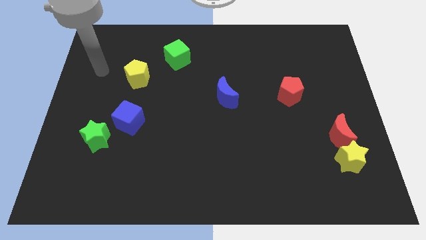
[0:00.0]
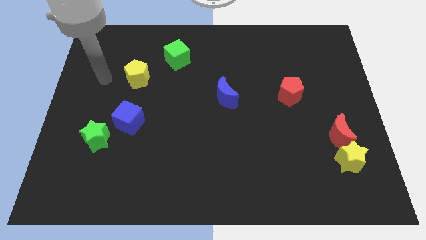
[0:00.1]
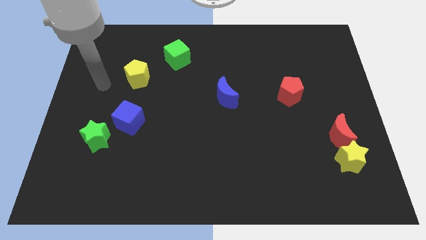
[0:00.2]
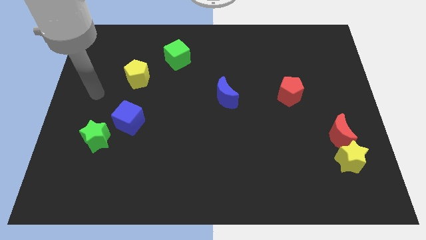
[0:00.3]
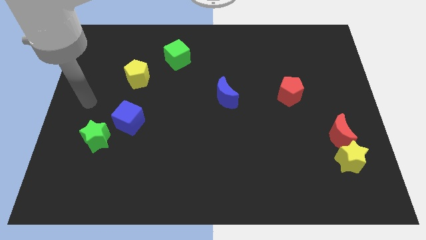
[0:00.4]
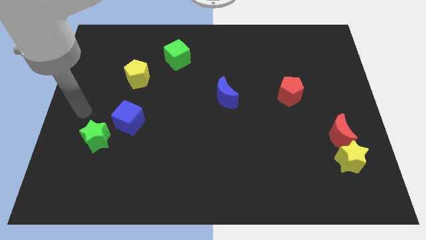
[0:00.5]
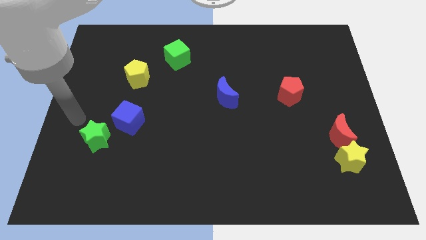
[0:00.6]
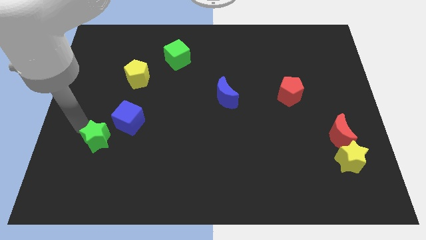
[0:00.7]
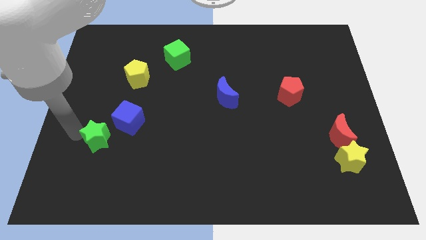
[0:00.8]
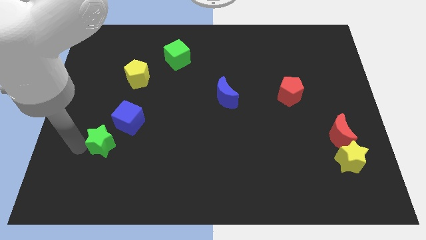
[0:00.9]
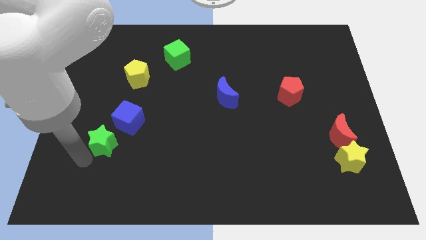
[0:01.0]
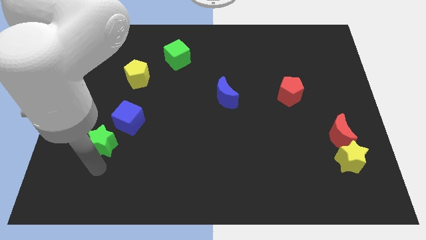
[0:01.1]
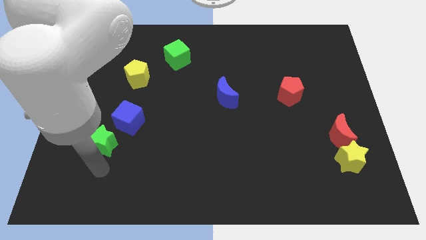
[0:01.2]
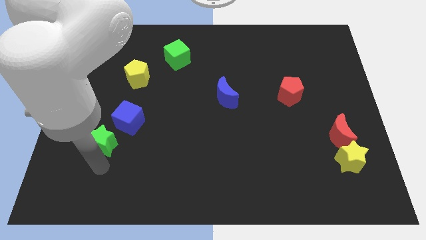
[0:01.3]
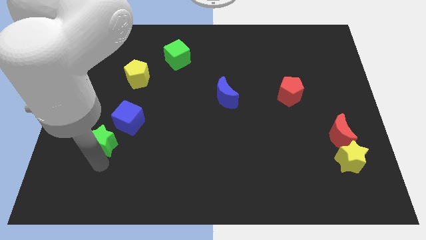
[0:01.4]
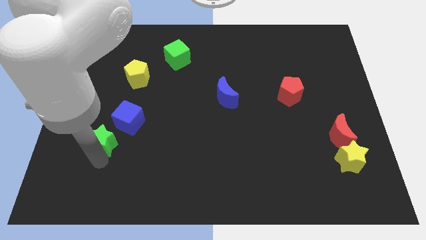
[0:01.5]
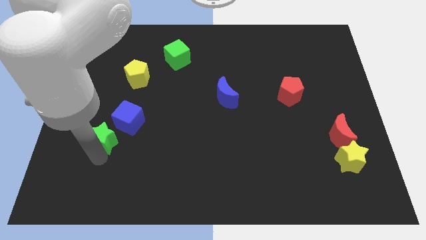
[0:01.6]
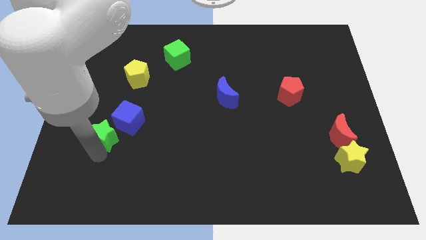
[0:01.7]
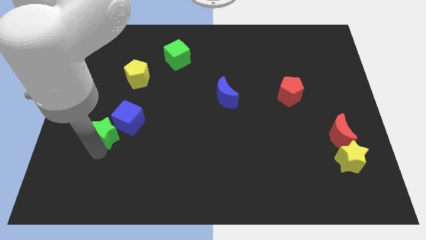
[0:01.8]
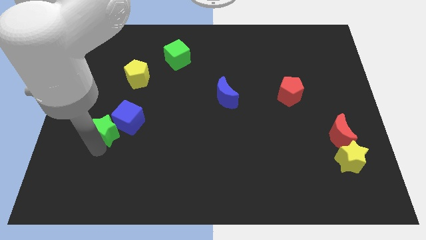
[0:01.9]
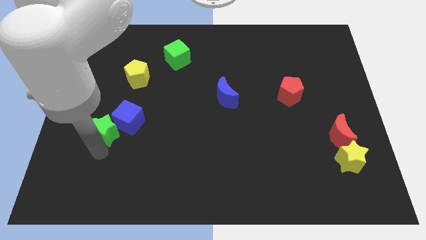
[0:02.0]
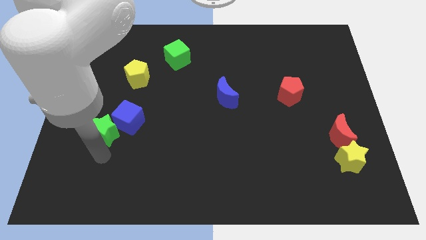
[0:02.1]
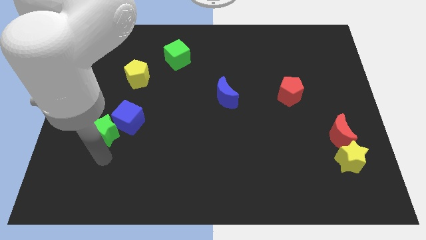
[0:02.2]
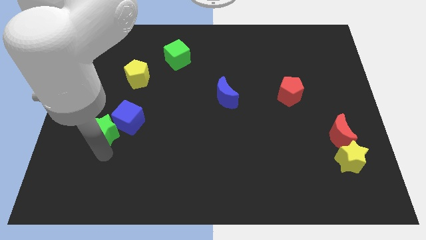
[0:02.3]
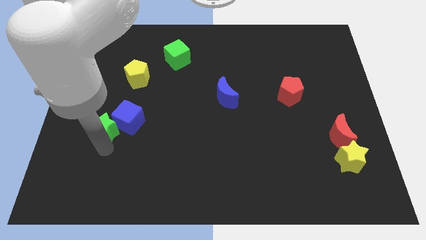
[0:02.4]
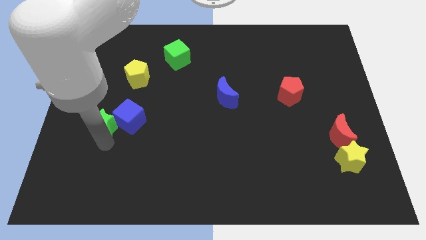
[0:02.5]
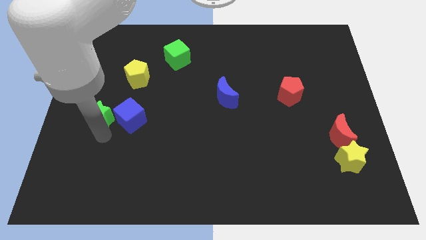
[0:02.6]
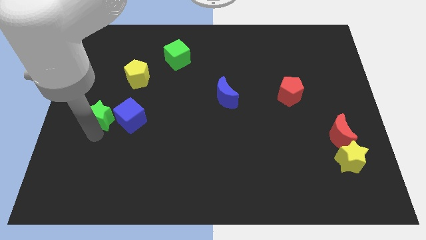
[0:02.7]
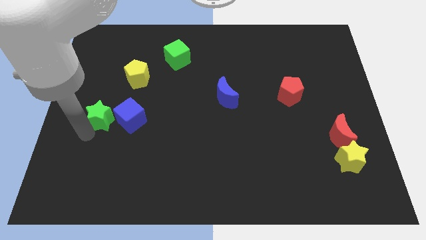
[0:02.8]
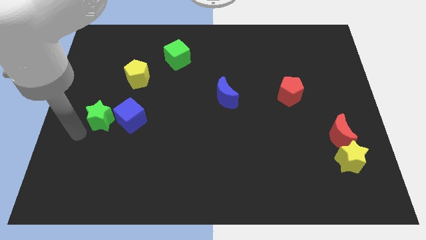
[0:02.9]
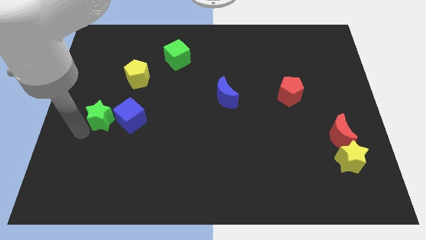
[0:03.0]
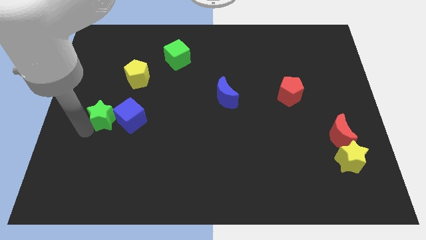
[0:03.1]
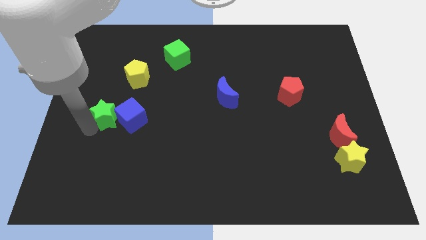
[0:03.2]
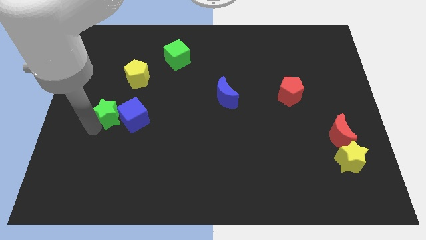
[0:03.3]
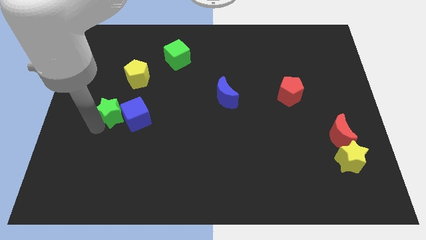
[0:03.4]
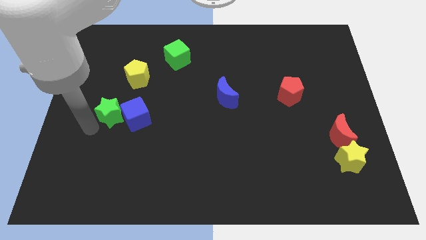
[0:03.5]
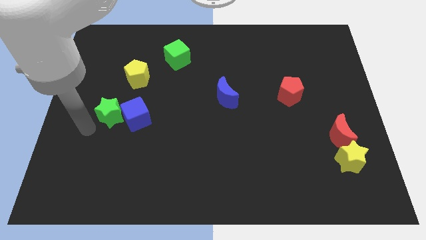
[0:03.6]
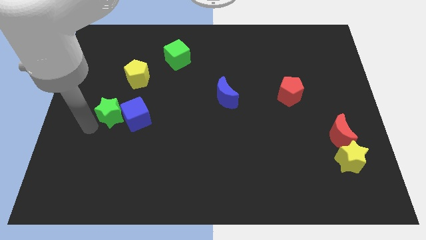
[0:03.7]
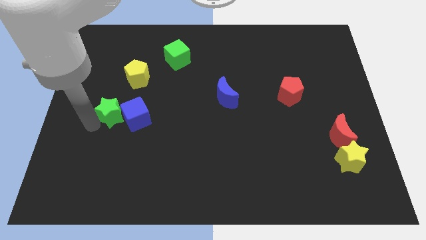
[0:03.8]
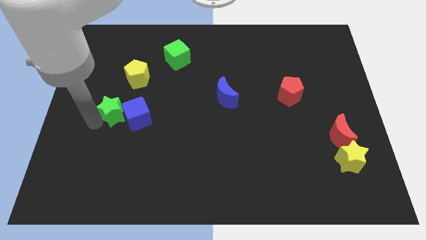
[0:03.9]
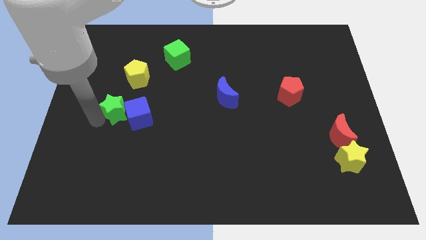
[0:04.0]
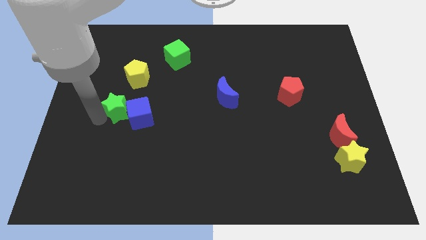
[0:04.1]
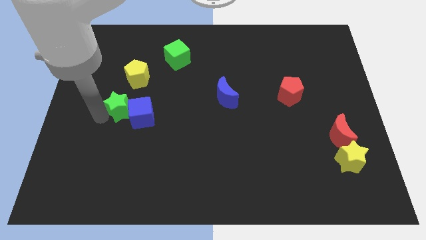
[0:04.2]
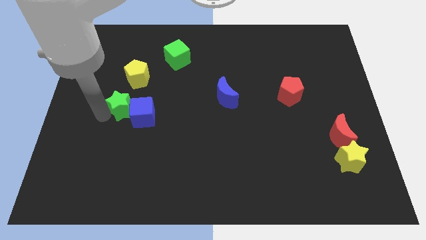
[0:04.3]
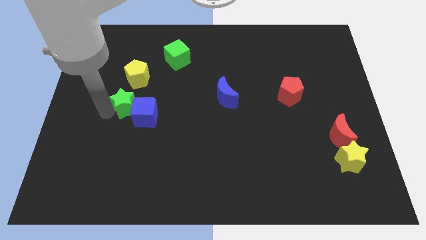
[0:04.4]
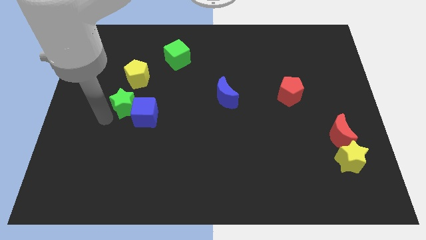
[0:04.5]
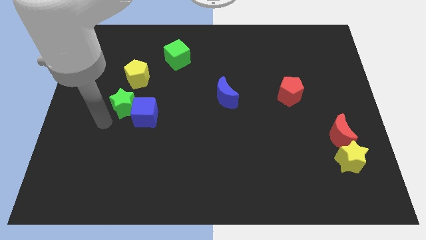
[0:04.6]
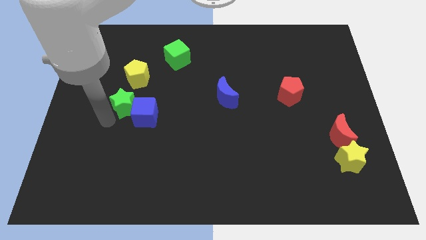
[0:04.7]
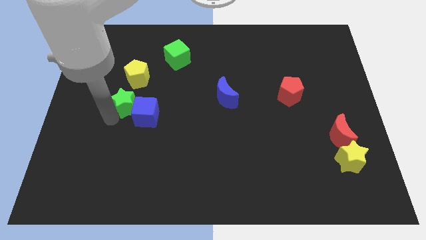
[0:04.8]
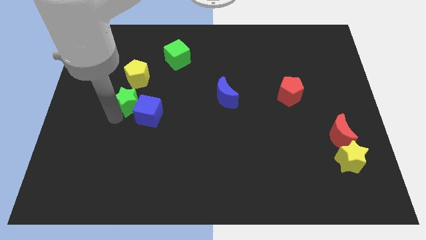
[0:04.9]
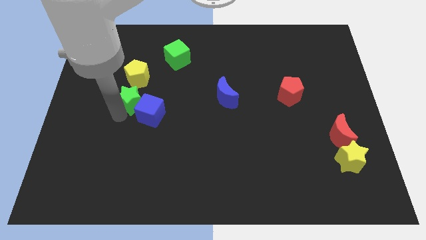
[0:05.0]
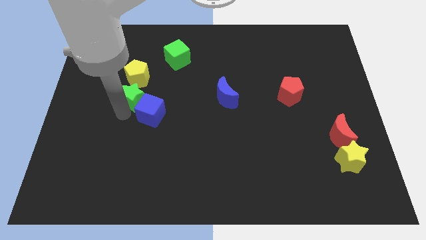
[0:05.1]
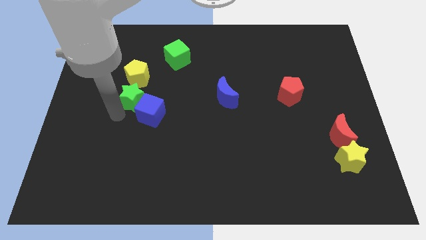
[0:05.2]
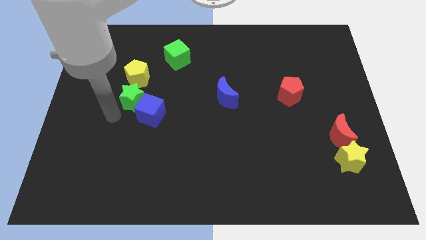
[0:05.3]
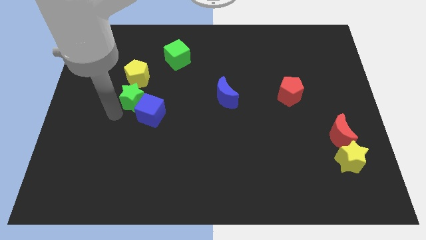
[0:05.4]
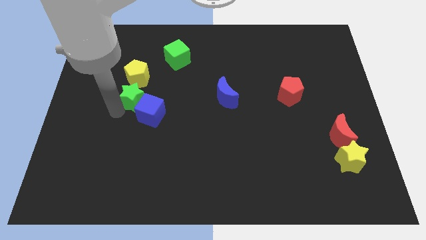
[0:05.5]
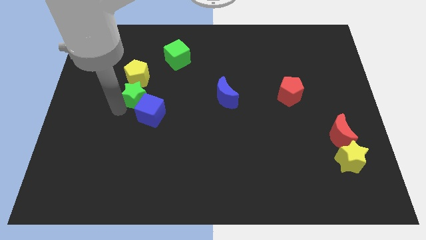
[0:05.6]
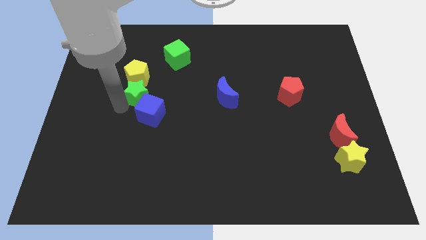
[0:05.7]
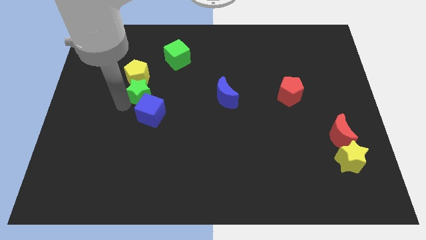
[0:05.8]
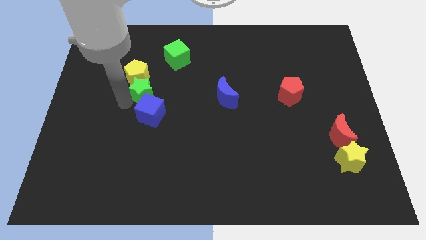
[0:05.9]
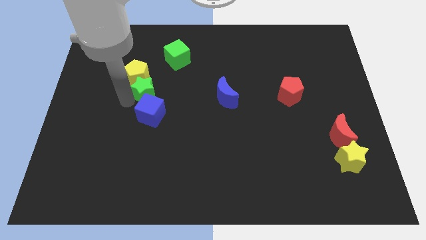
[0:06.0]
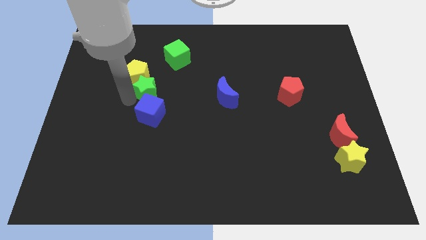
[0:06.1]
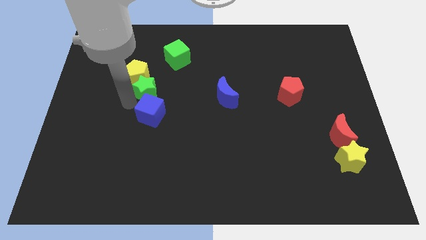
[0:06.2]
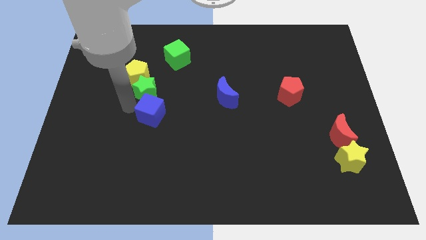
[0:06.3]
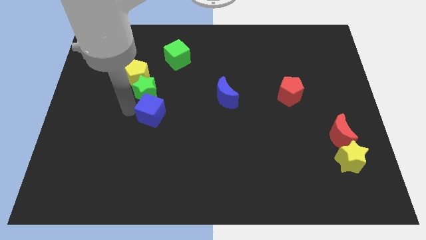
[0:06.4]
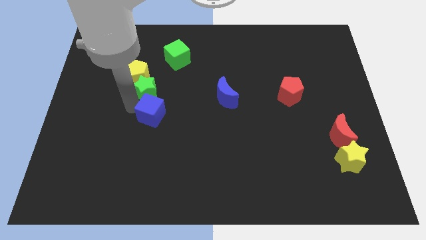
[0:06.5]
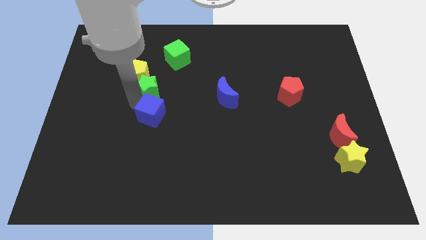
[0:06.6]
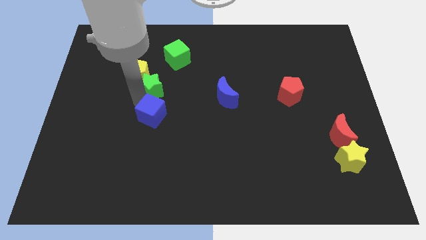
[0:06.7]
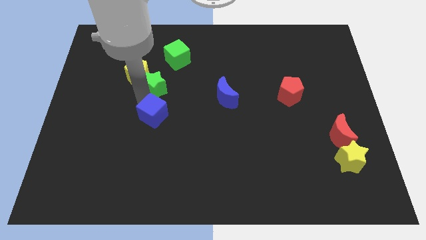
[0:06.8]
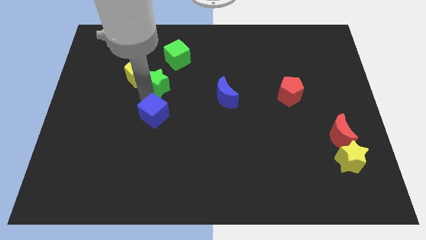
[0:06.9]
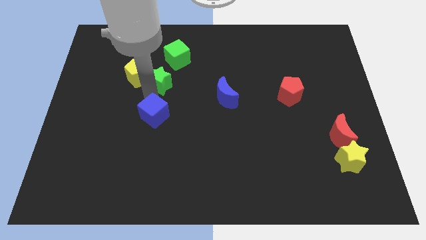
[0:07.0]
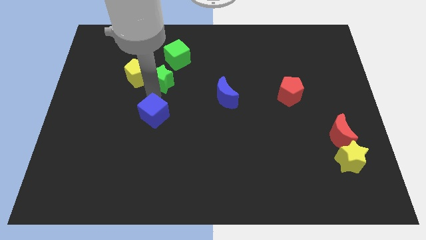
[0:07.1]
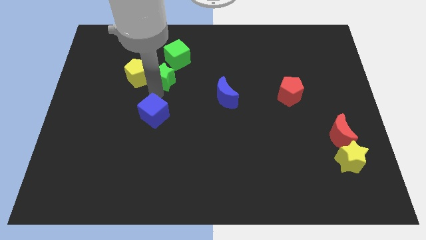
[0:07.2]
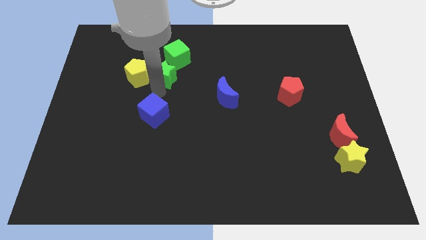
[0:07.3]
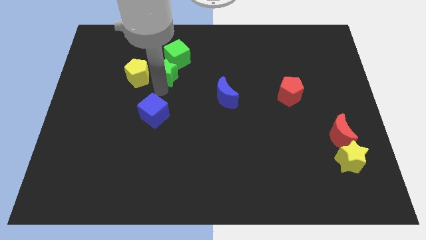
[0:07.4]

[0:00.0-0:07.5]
put the green star to the top right of the yellow pentagon
